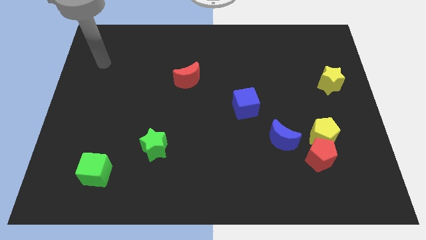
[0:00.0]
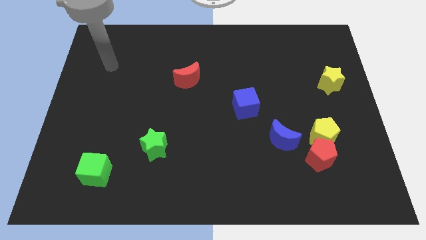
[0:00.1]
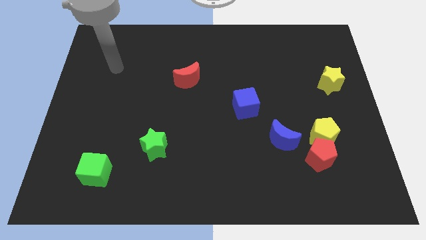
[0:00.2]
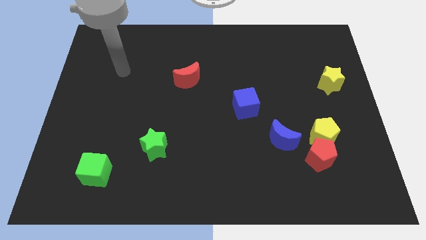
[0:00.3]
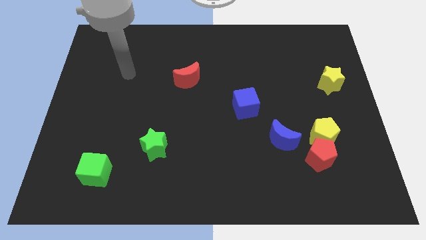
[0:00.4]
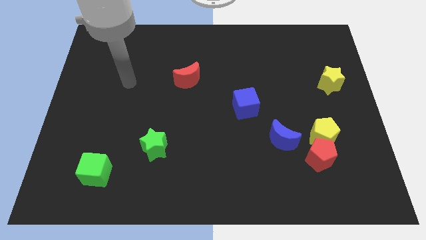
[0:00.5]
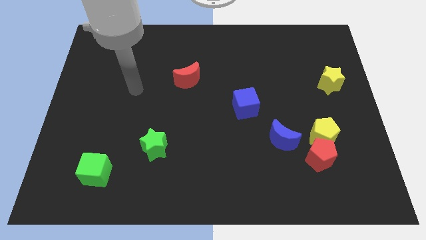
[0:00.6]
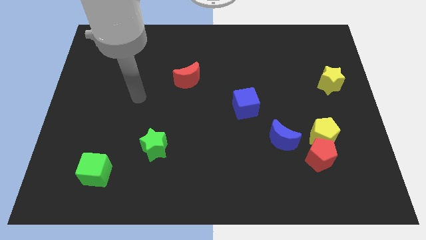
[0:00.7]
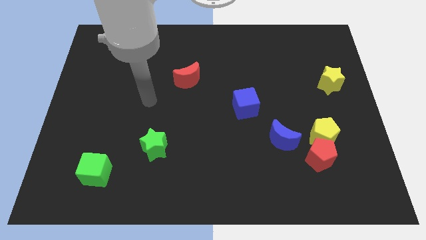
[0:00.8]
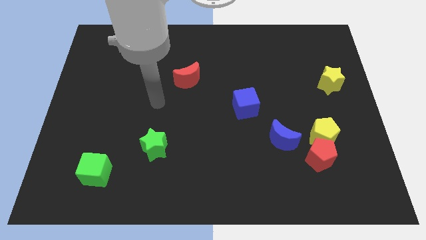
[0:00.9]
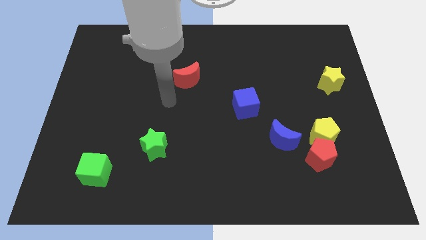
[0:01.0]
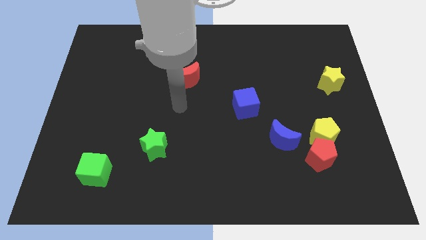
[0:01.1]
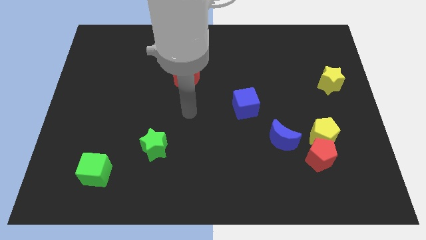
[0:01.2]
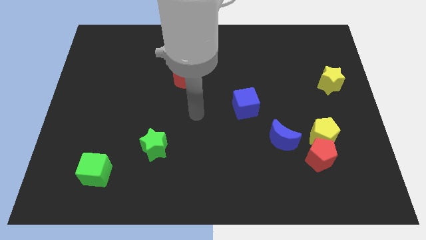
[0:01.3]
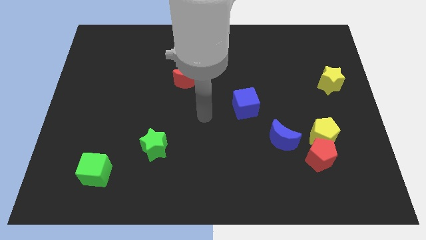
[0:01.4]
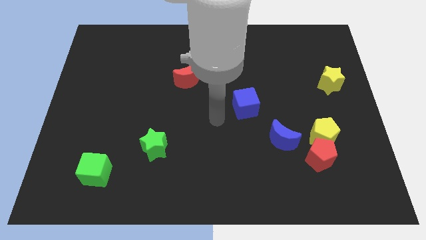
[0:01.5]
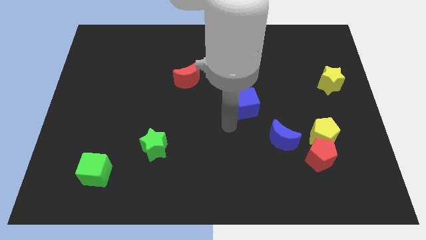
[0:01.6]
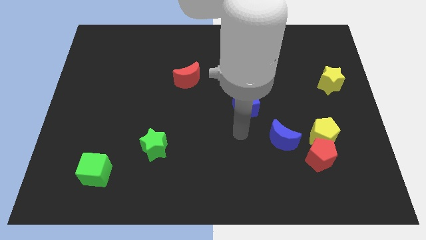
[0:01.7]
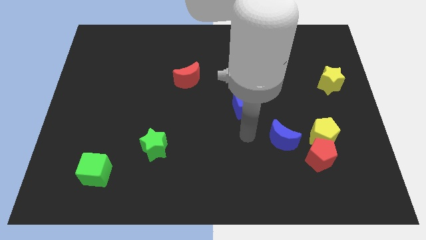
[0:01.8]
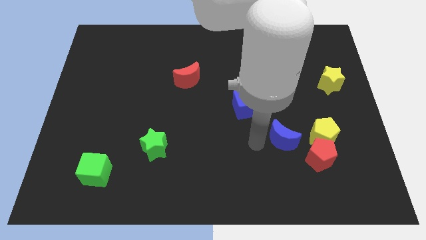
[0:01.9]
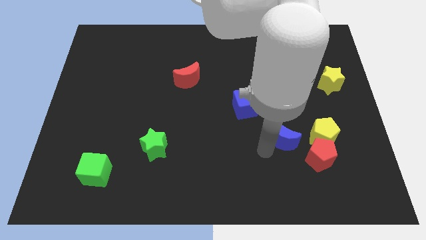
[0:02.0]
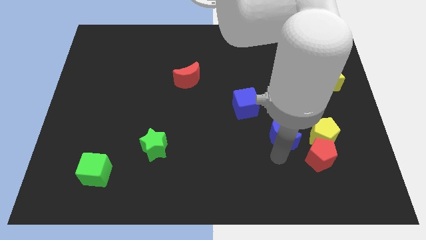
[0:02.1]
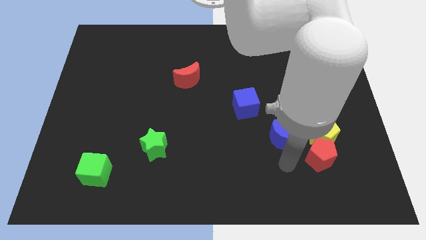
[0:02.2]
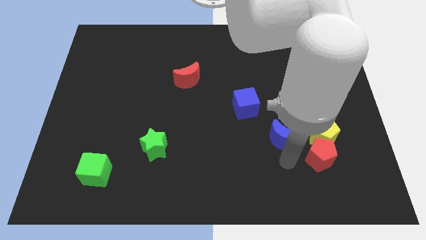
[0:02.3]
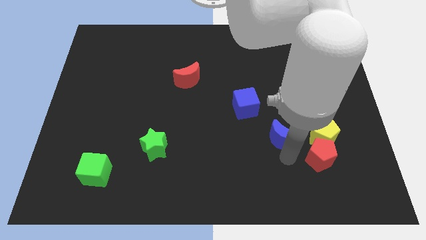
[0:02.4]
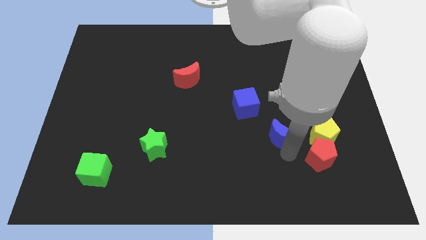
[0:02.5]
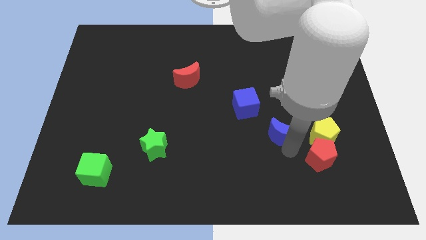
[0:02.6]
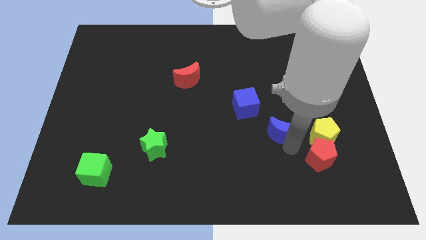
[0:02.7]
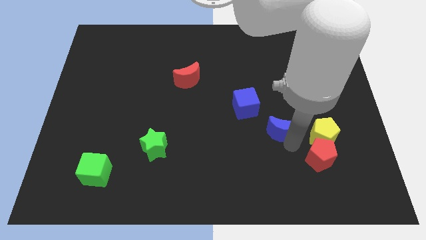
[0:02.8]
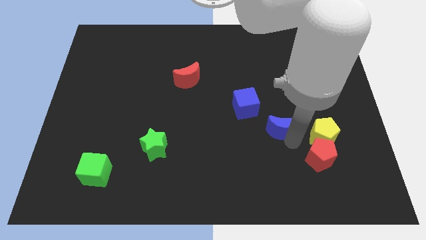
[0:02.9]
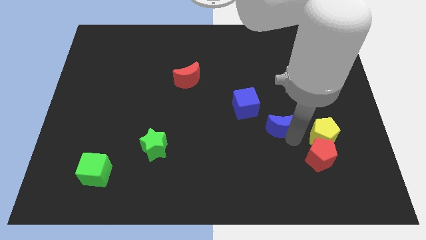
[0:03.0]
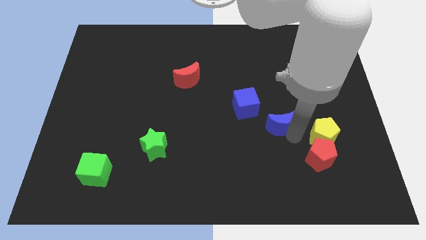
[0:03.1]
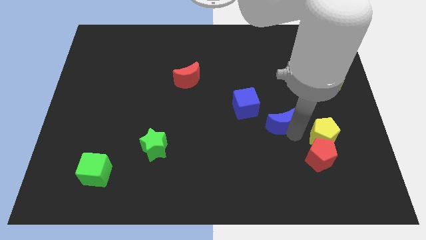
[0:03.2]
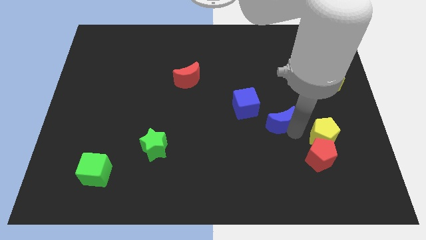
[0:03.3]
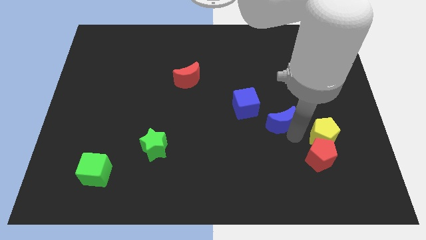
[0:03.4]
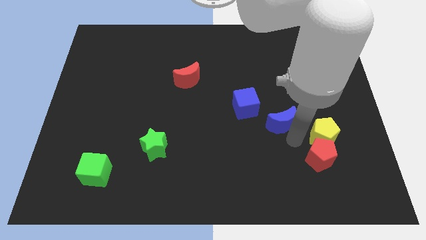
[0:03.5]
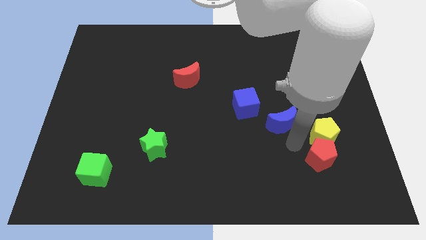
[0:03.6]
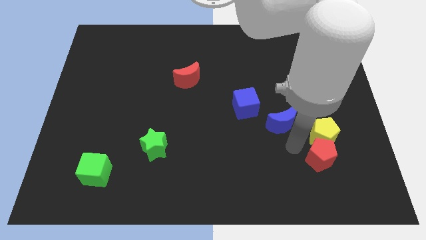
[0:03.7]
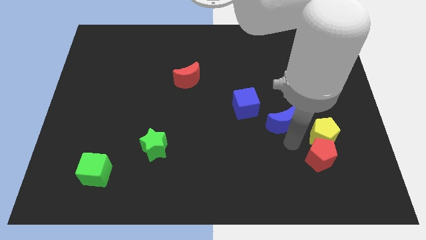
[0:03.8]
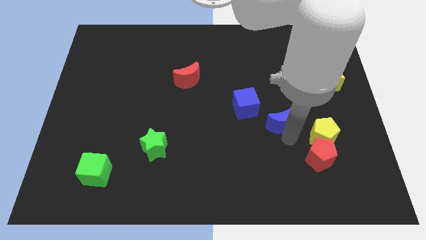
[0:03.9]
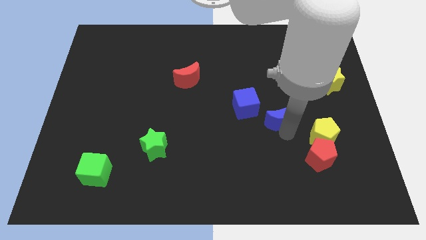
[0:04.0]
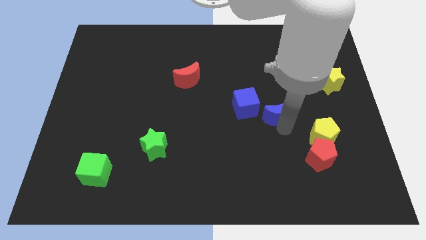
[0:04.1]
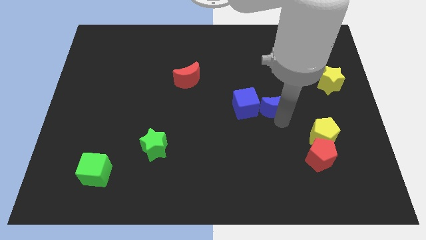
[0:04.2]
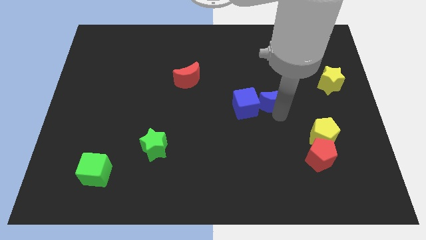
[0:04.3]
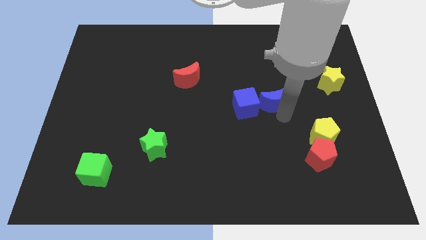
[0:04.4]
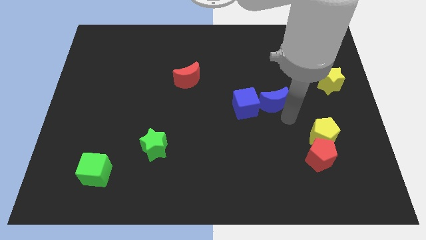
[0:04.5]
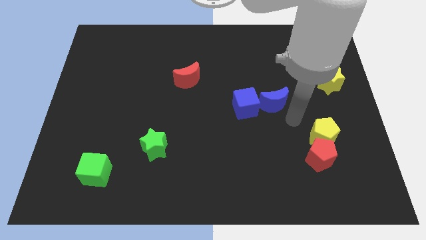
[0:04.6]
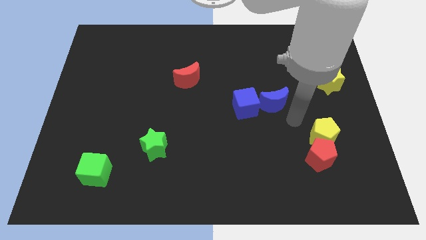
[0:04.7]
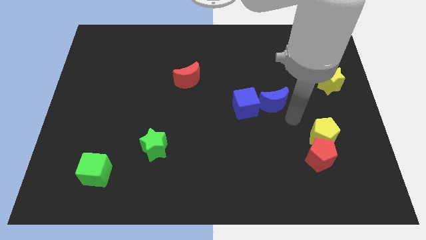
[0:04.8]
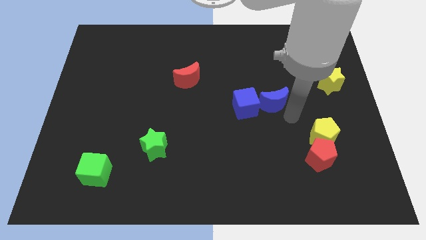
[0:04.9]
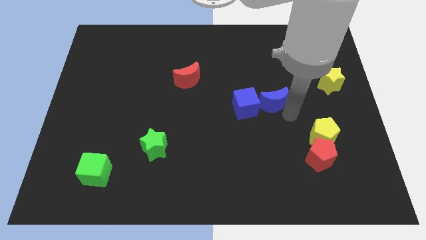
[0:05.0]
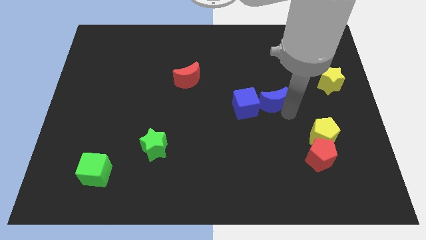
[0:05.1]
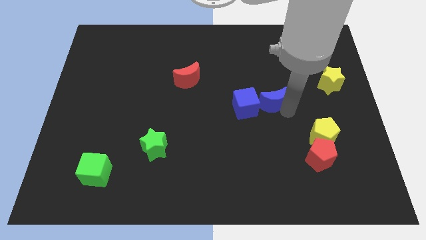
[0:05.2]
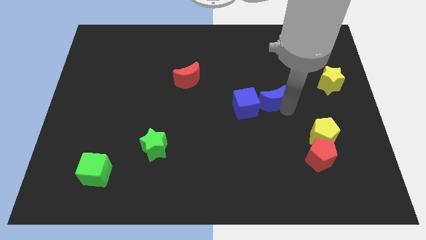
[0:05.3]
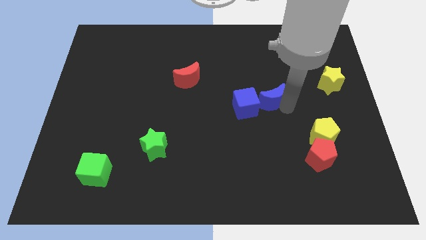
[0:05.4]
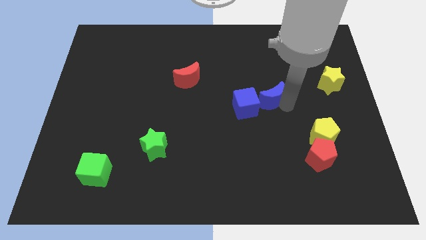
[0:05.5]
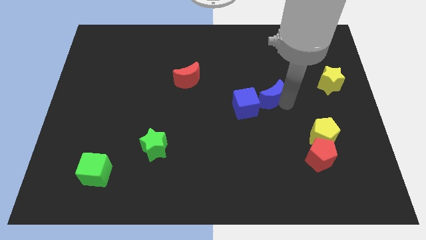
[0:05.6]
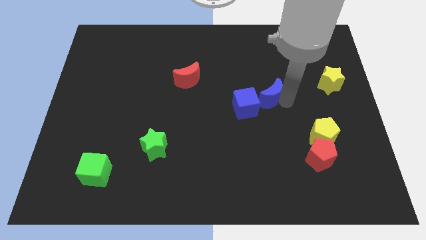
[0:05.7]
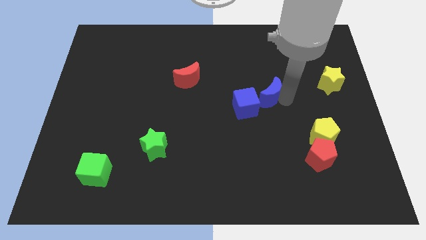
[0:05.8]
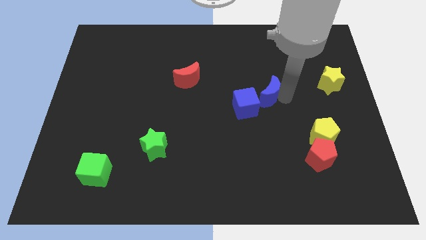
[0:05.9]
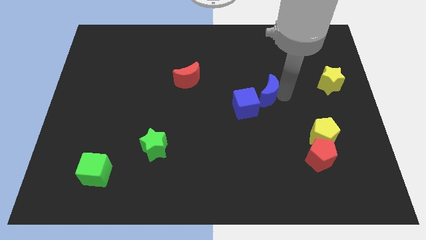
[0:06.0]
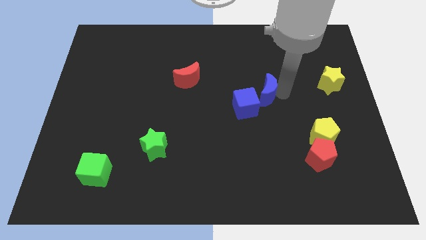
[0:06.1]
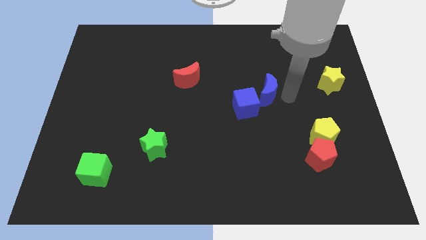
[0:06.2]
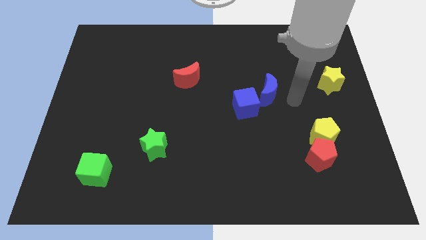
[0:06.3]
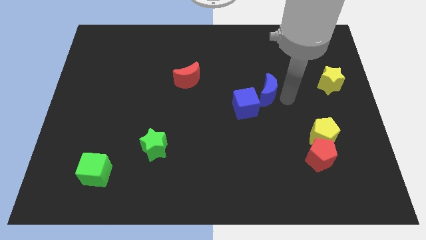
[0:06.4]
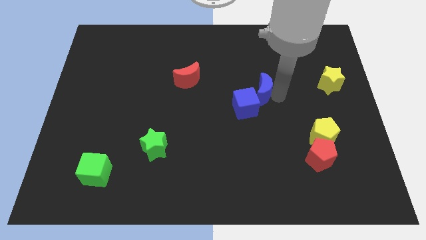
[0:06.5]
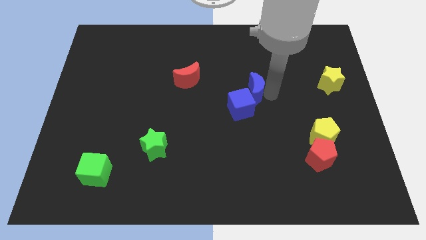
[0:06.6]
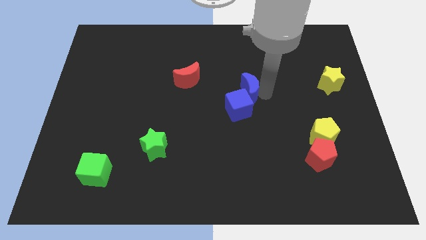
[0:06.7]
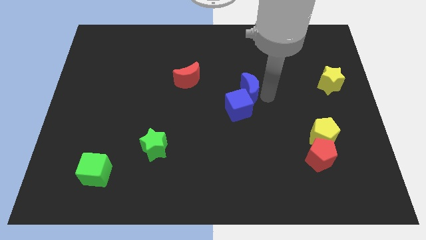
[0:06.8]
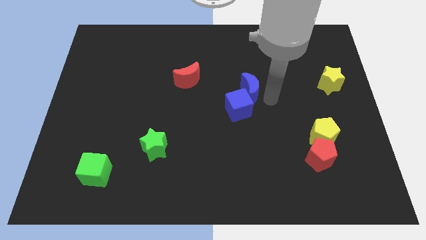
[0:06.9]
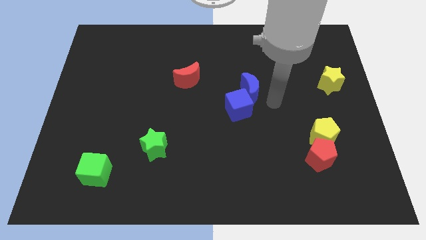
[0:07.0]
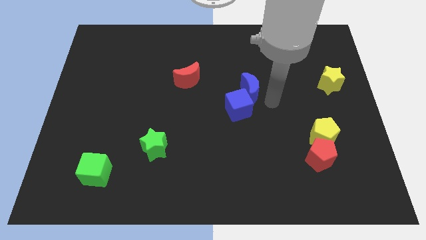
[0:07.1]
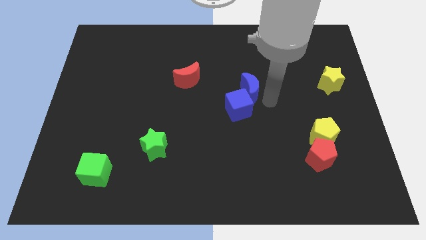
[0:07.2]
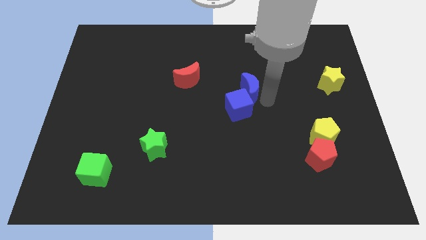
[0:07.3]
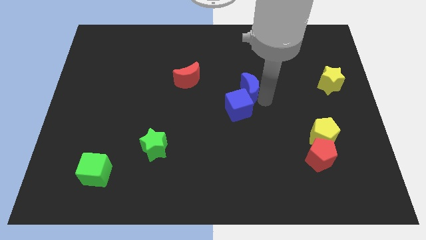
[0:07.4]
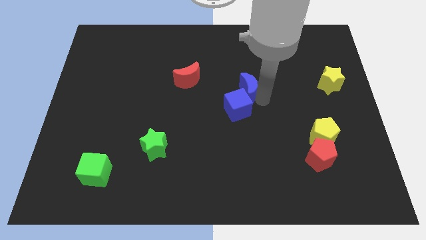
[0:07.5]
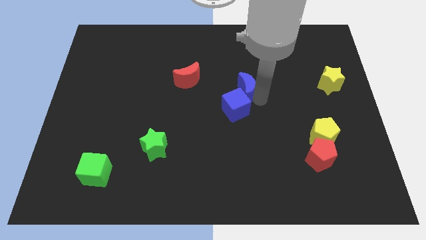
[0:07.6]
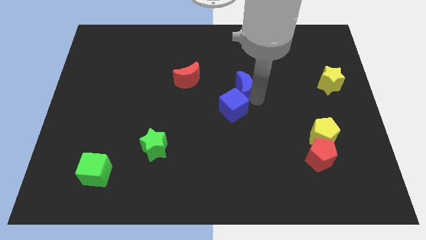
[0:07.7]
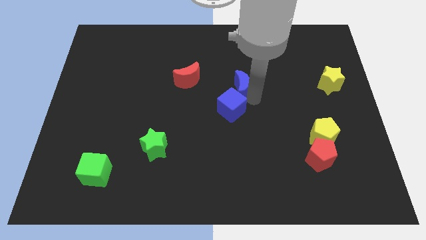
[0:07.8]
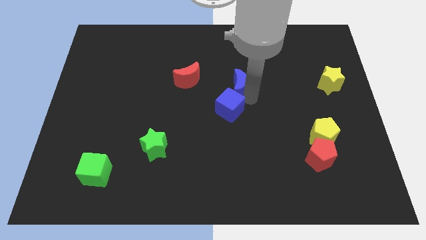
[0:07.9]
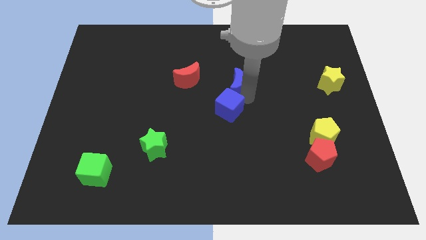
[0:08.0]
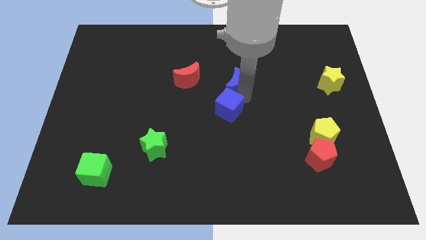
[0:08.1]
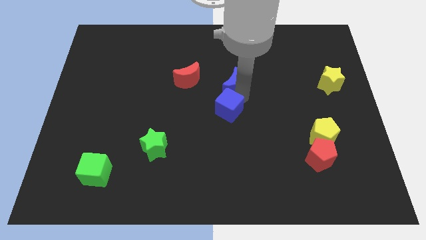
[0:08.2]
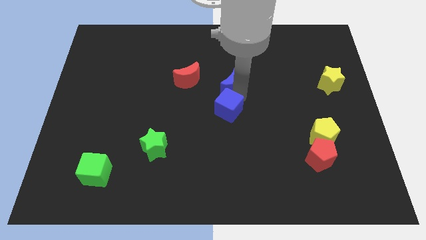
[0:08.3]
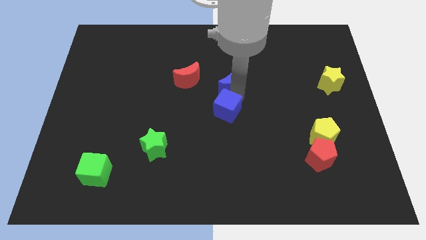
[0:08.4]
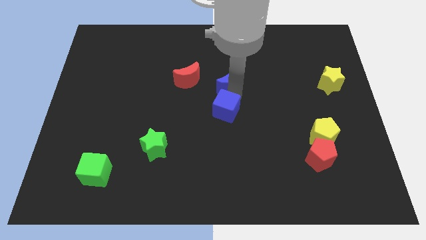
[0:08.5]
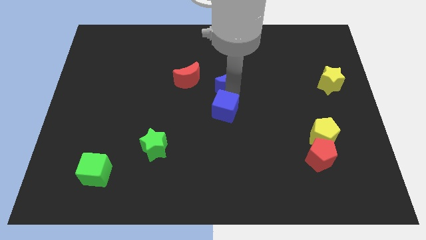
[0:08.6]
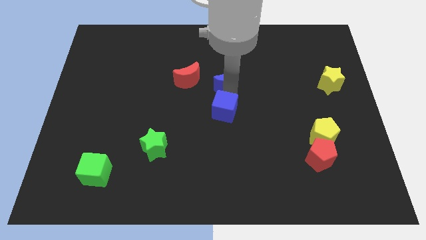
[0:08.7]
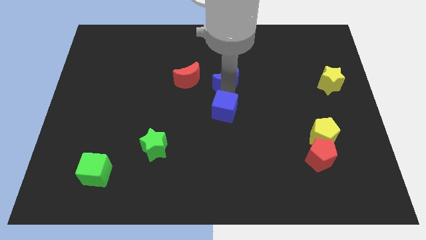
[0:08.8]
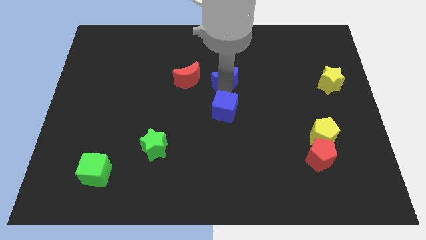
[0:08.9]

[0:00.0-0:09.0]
push the blue moon upwards and to the left diagonally
